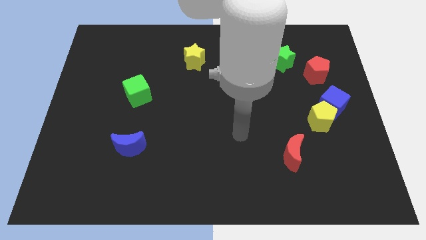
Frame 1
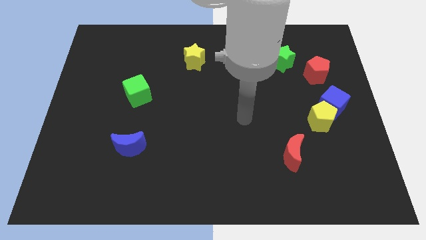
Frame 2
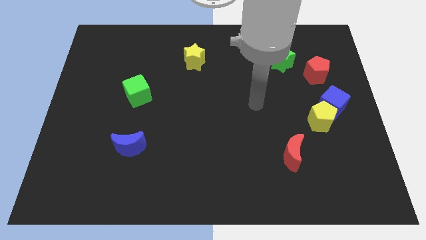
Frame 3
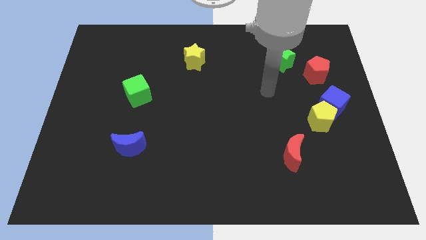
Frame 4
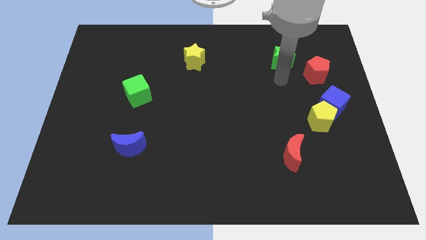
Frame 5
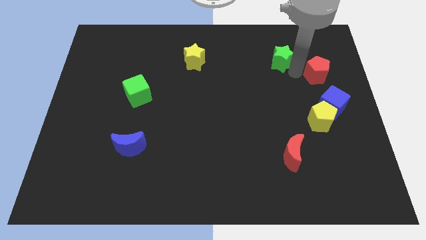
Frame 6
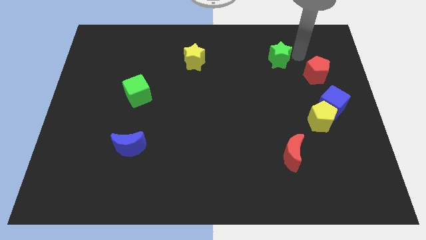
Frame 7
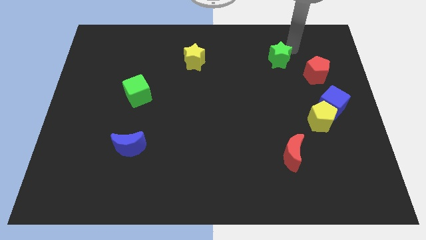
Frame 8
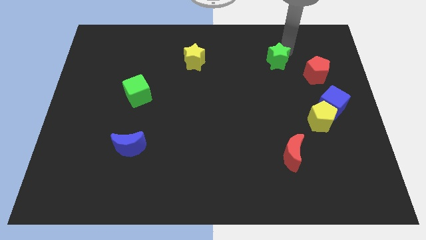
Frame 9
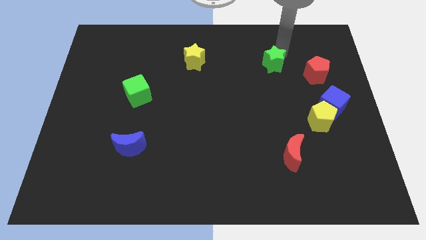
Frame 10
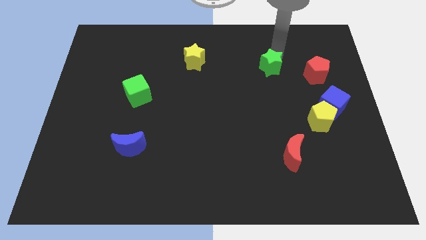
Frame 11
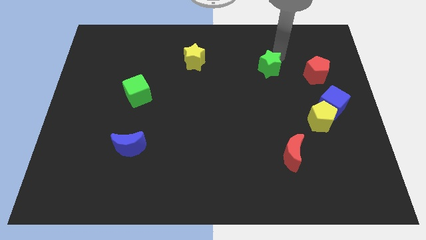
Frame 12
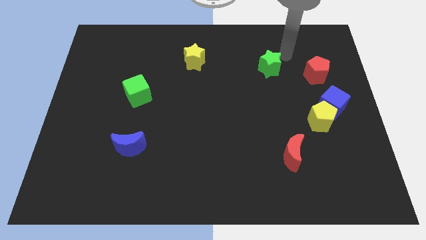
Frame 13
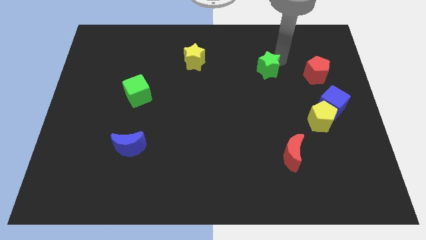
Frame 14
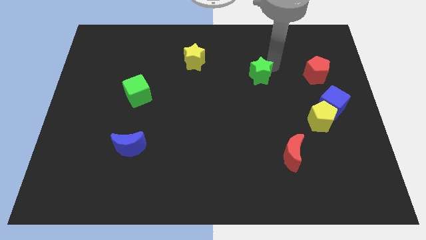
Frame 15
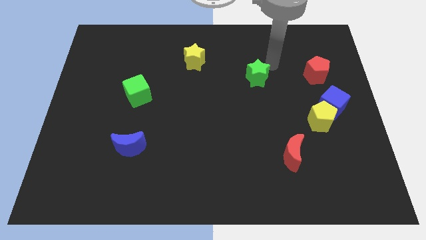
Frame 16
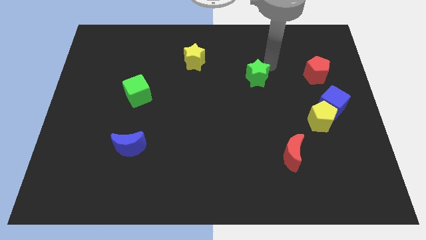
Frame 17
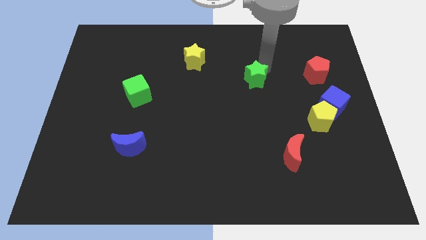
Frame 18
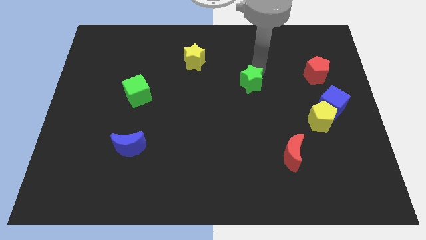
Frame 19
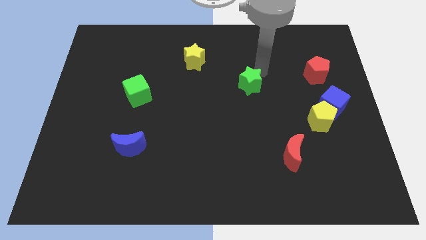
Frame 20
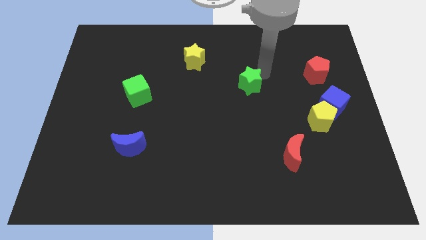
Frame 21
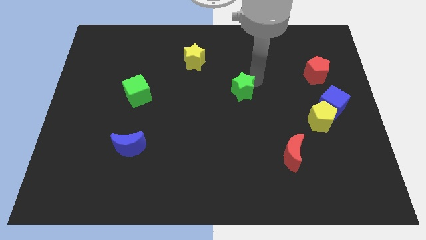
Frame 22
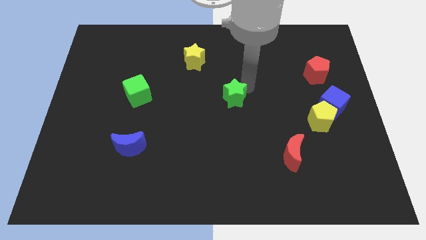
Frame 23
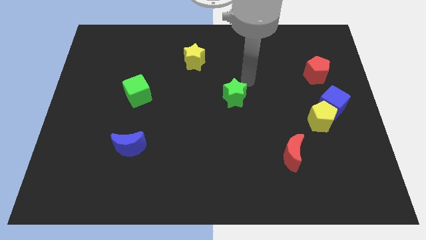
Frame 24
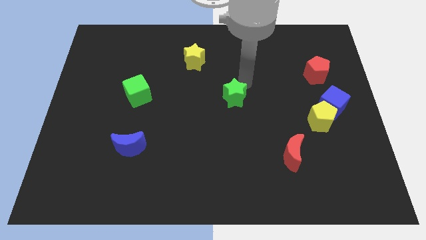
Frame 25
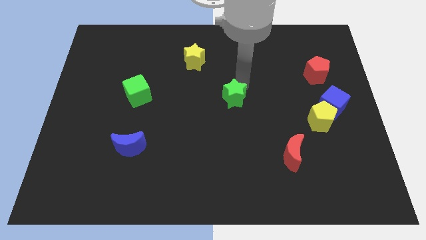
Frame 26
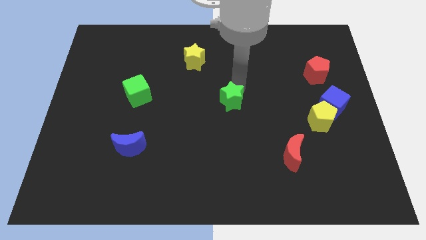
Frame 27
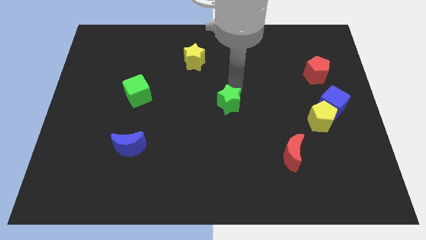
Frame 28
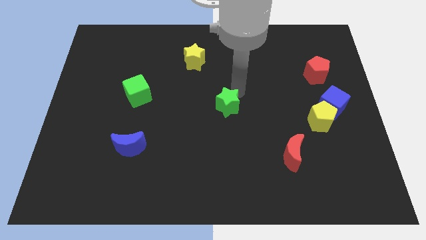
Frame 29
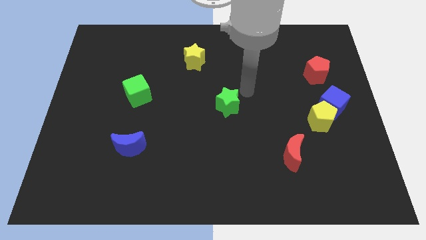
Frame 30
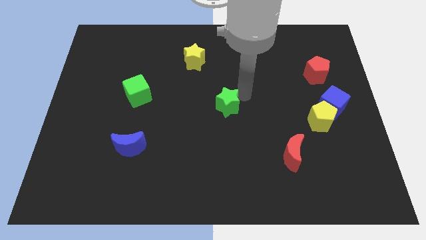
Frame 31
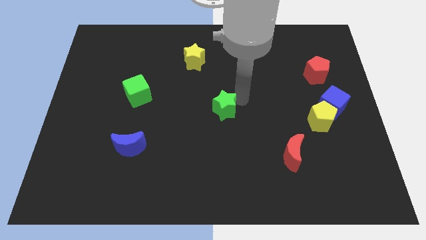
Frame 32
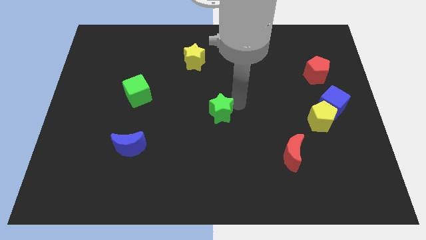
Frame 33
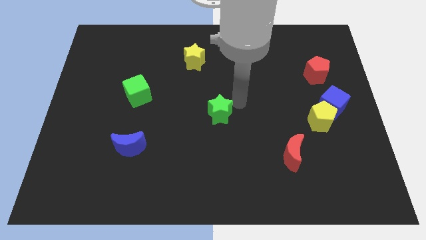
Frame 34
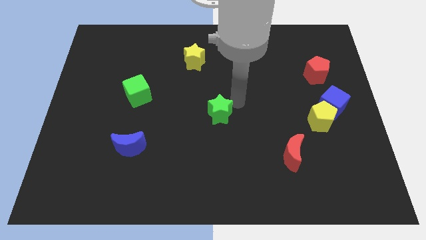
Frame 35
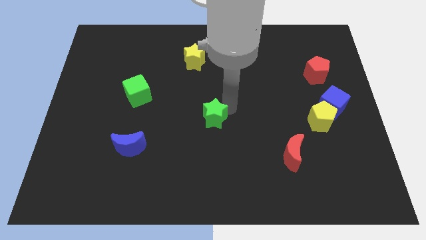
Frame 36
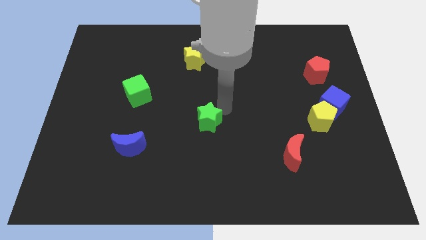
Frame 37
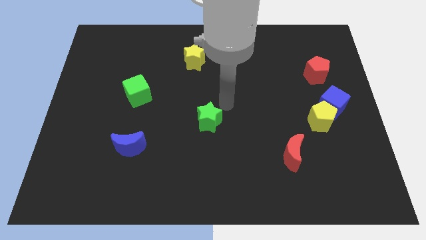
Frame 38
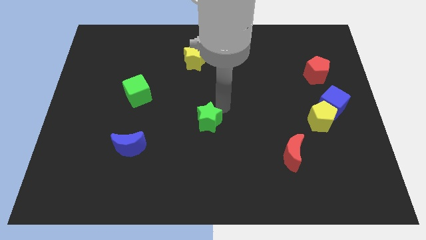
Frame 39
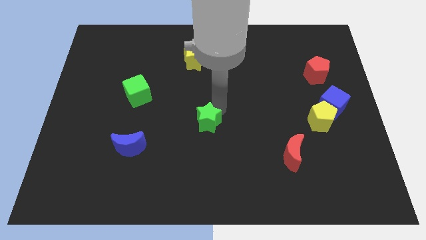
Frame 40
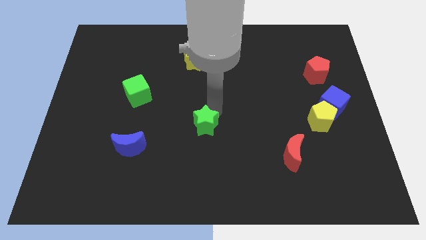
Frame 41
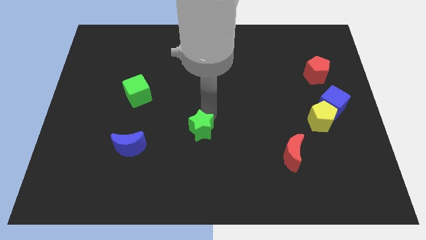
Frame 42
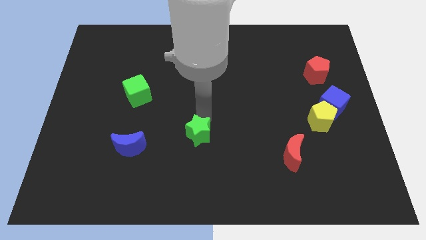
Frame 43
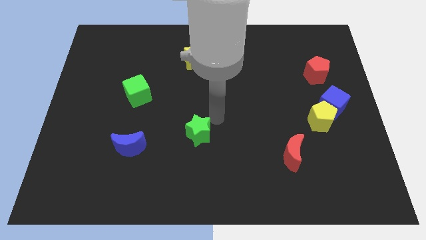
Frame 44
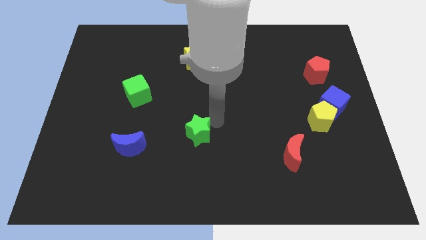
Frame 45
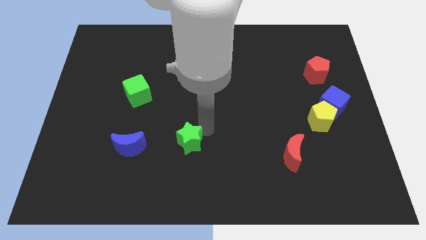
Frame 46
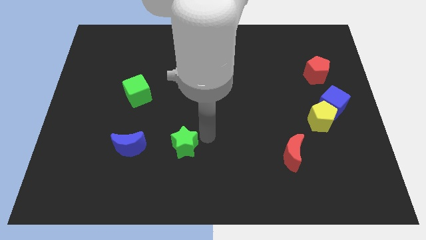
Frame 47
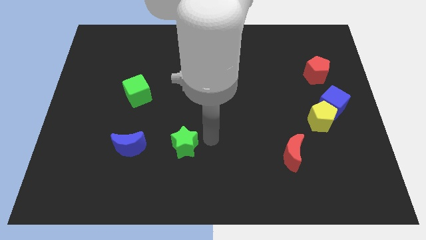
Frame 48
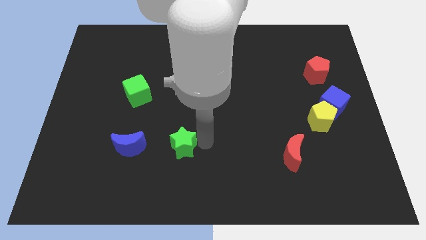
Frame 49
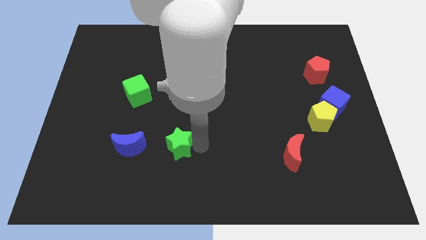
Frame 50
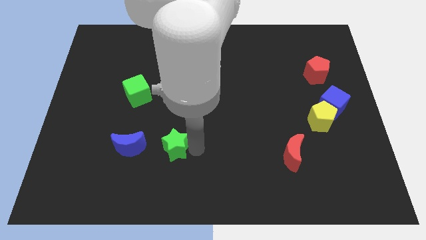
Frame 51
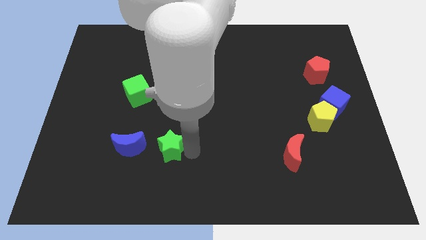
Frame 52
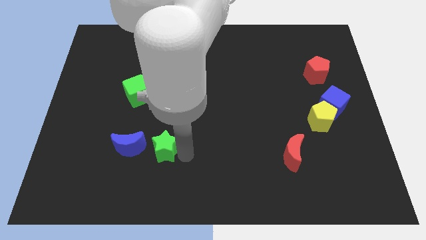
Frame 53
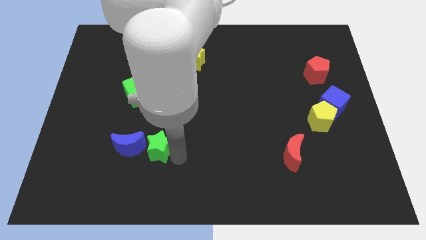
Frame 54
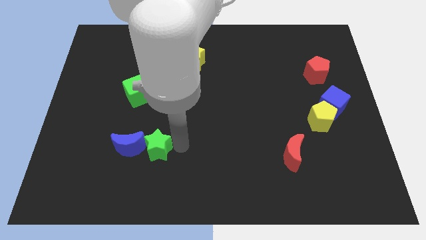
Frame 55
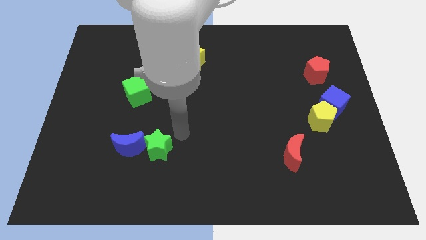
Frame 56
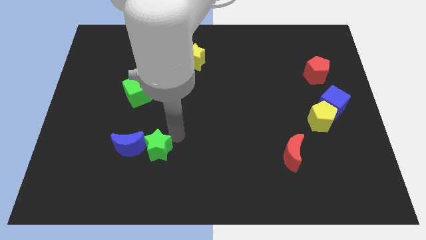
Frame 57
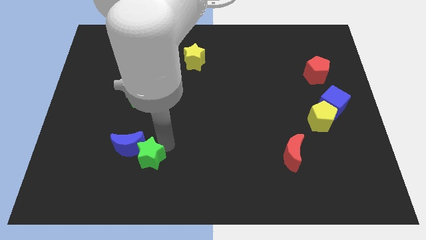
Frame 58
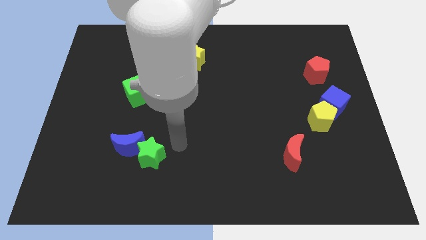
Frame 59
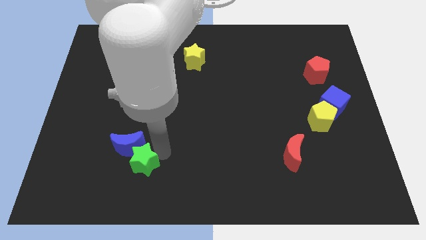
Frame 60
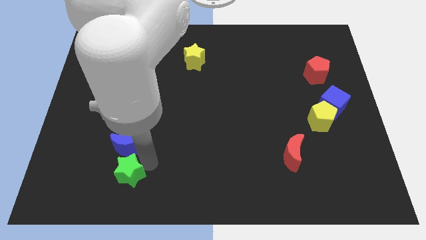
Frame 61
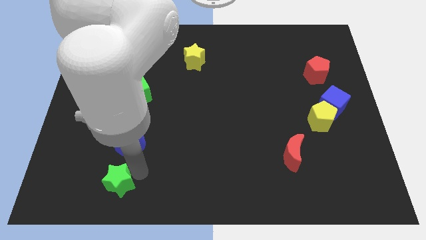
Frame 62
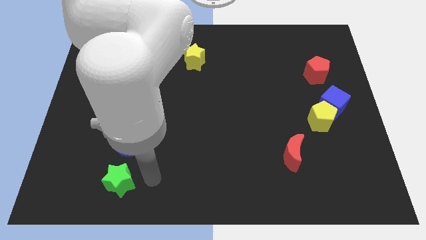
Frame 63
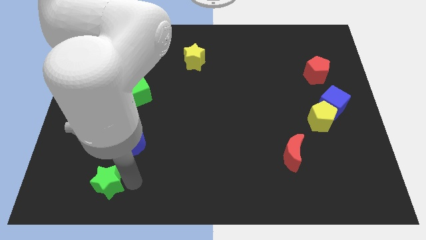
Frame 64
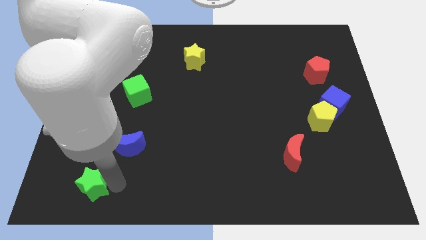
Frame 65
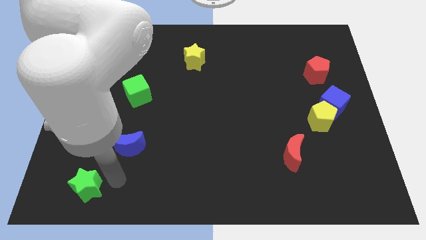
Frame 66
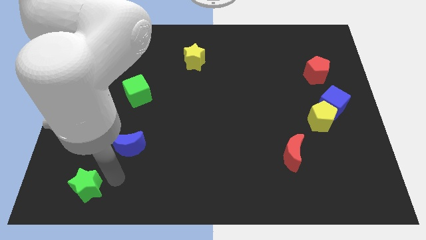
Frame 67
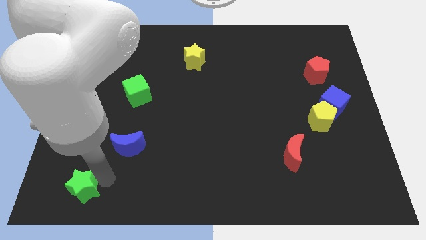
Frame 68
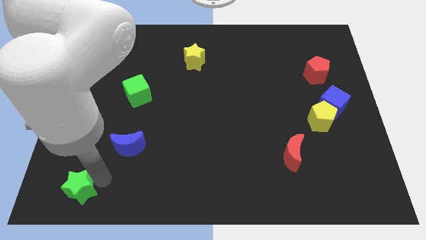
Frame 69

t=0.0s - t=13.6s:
put the green star to the bottom left corner
